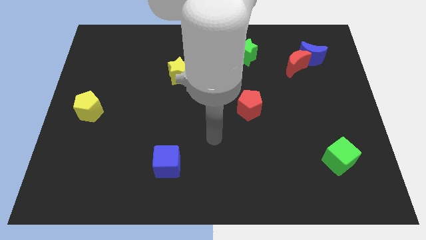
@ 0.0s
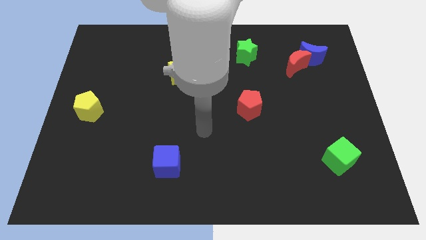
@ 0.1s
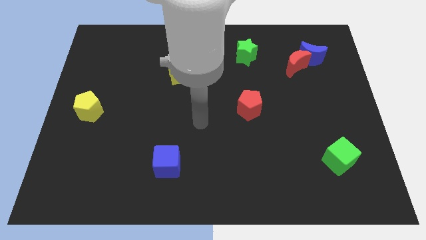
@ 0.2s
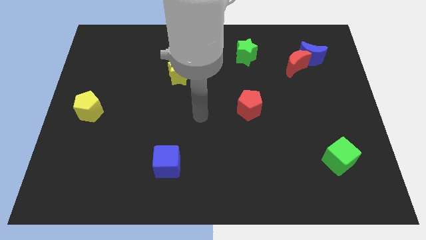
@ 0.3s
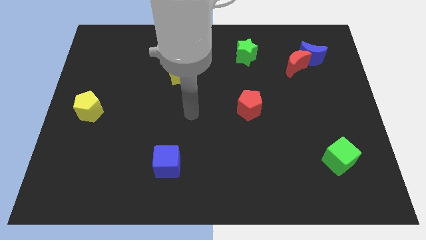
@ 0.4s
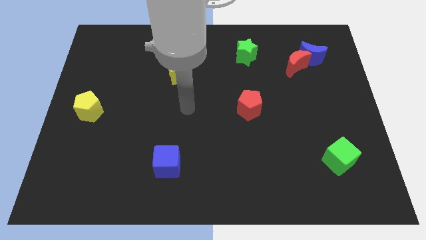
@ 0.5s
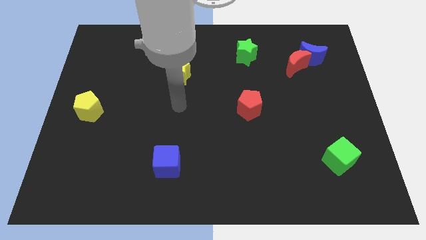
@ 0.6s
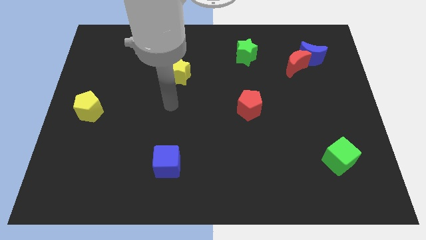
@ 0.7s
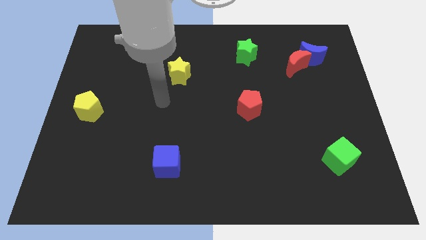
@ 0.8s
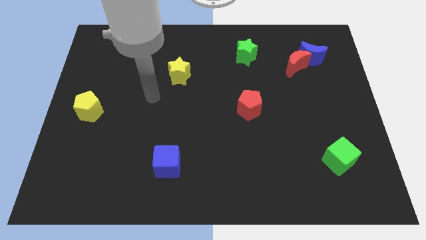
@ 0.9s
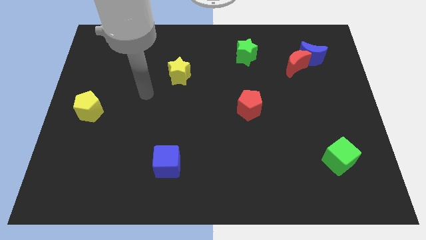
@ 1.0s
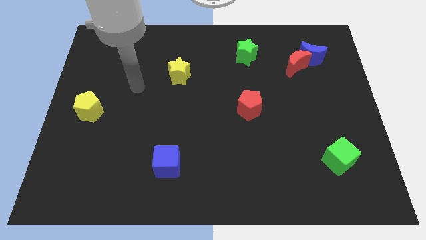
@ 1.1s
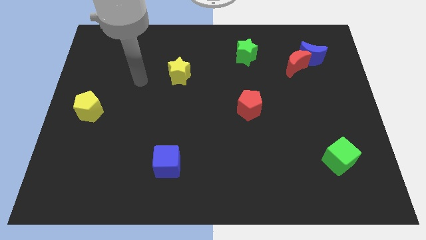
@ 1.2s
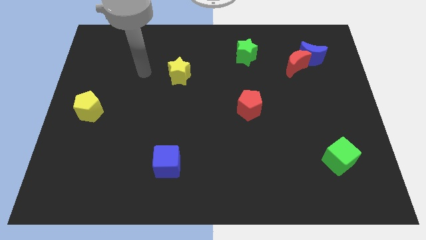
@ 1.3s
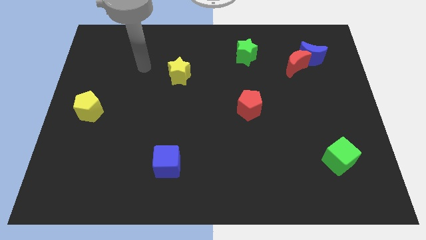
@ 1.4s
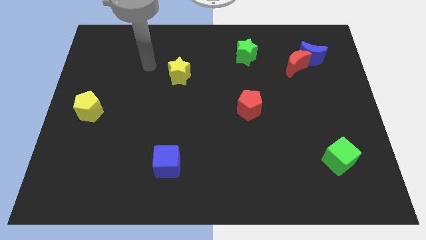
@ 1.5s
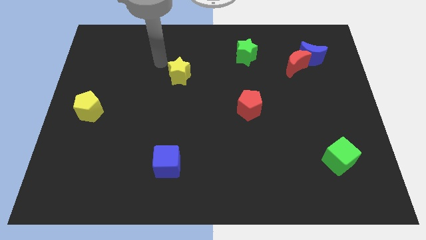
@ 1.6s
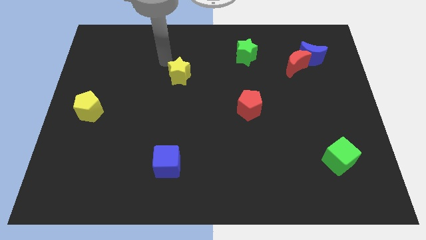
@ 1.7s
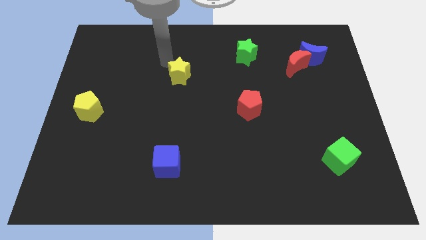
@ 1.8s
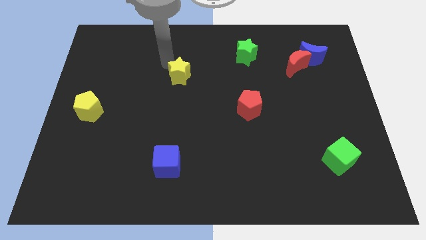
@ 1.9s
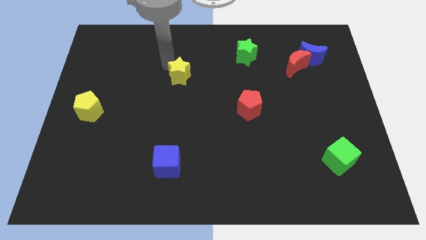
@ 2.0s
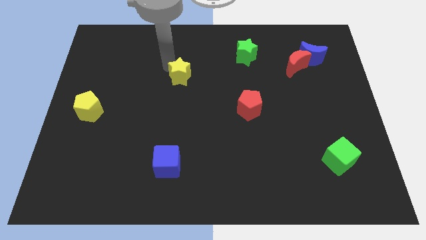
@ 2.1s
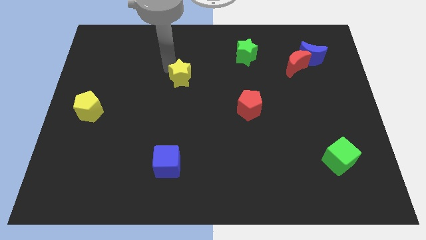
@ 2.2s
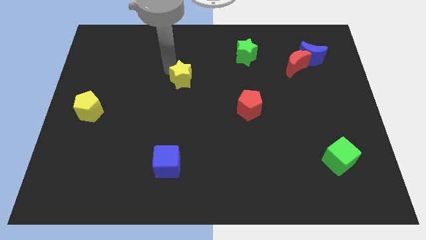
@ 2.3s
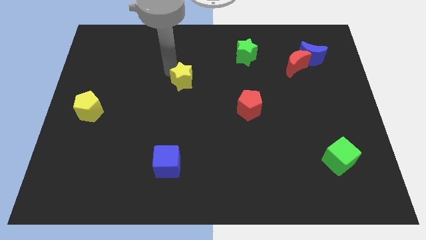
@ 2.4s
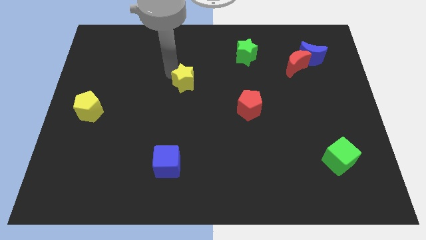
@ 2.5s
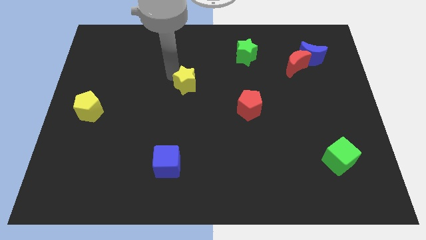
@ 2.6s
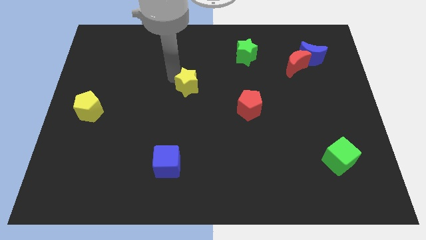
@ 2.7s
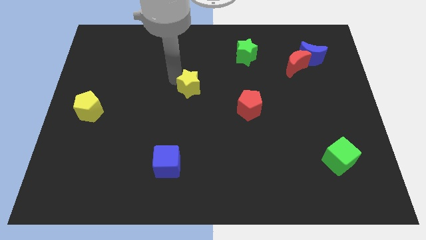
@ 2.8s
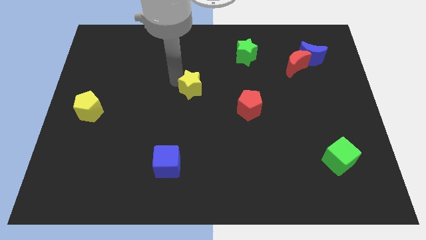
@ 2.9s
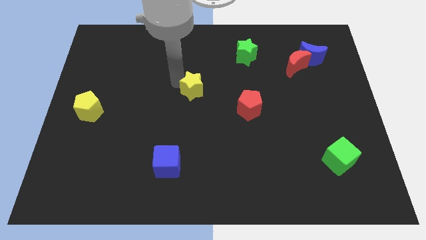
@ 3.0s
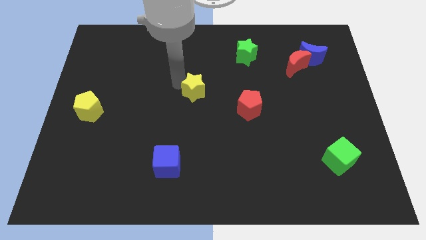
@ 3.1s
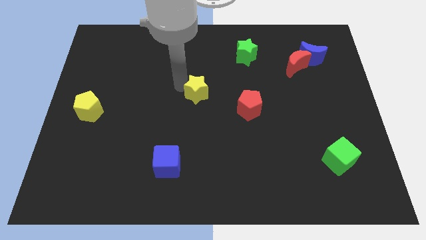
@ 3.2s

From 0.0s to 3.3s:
slightly slide the yellow star downwards and then to the right

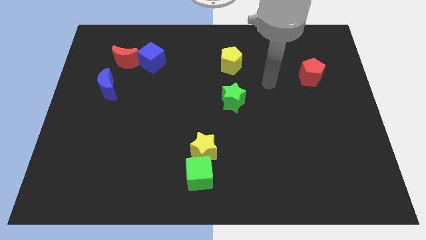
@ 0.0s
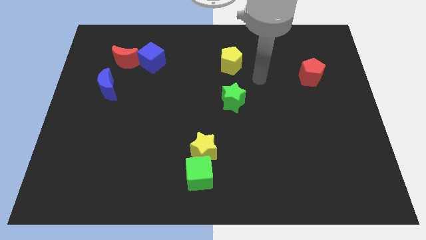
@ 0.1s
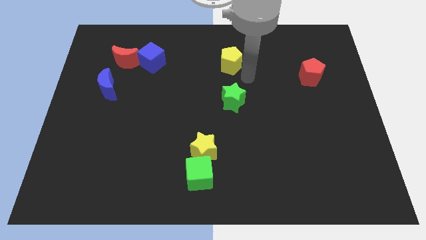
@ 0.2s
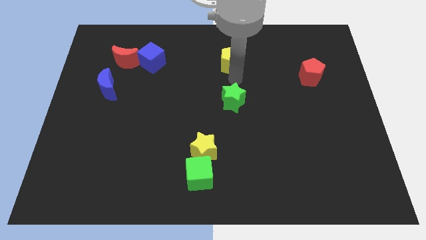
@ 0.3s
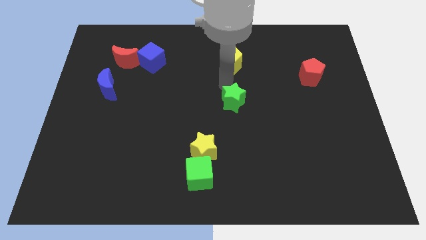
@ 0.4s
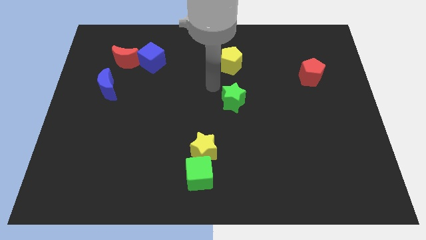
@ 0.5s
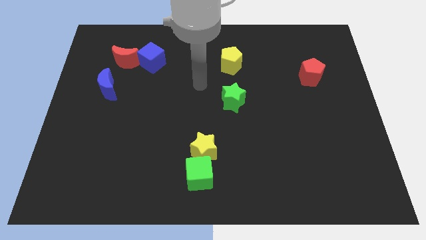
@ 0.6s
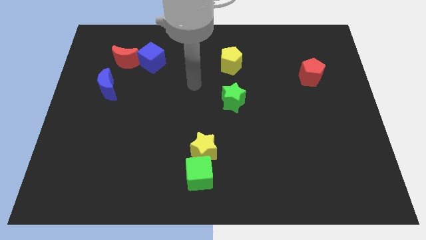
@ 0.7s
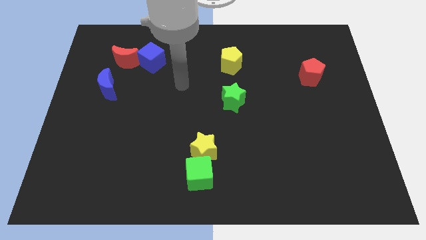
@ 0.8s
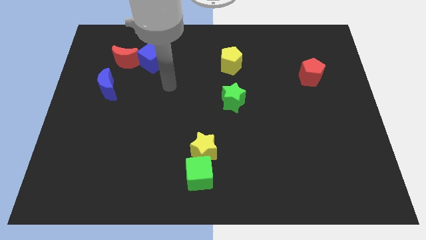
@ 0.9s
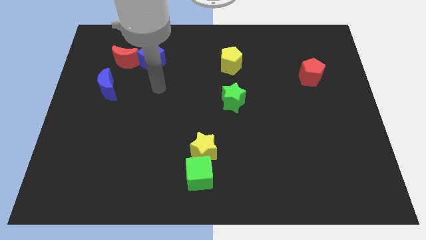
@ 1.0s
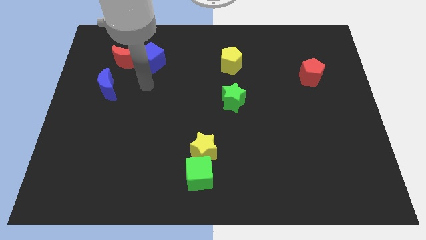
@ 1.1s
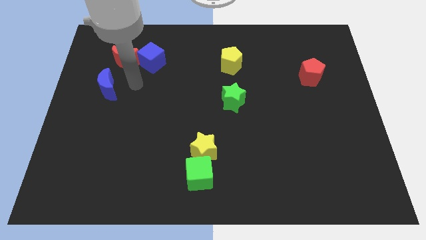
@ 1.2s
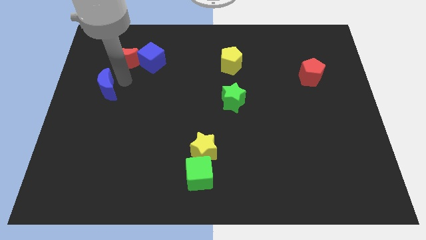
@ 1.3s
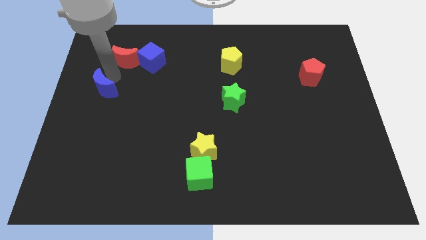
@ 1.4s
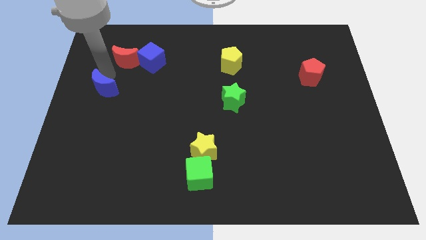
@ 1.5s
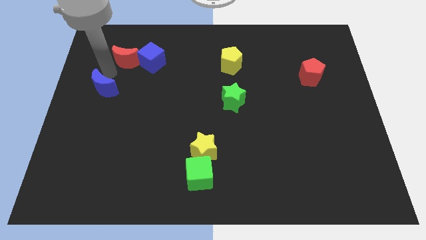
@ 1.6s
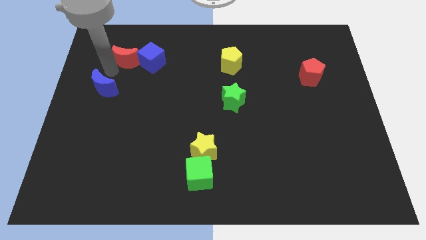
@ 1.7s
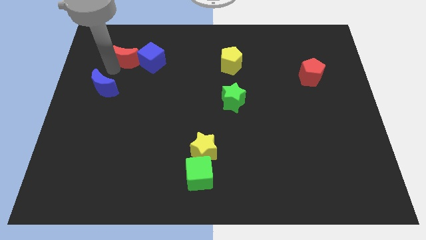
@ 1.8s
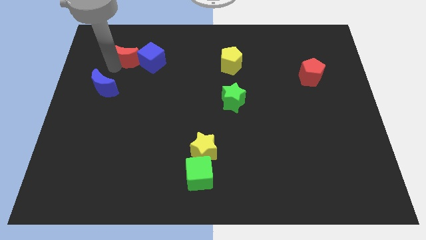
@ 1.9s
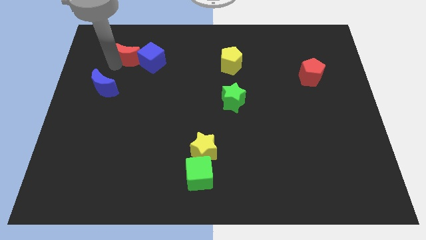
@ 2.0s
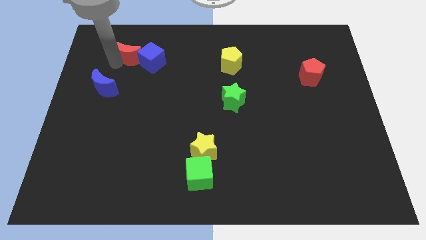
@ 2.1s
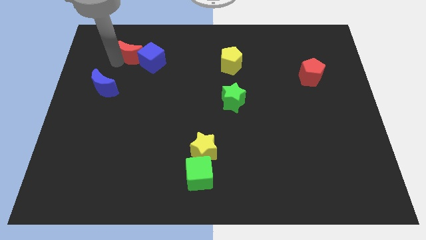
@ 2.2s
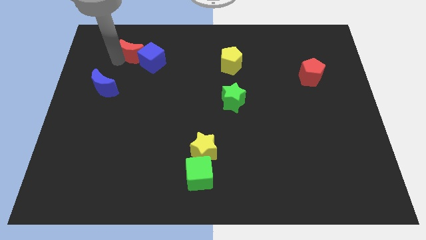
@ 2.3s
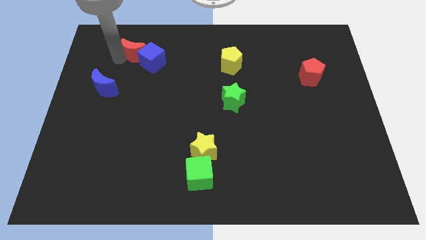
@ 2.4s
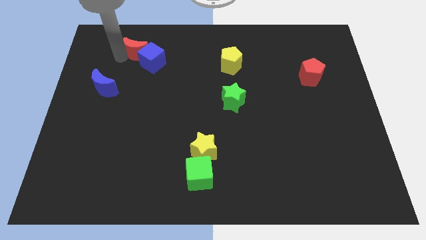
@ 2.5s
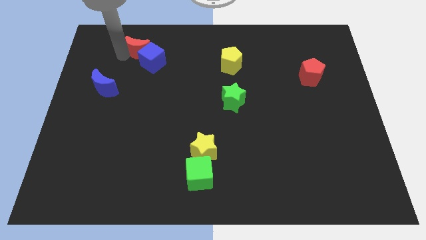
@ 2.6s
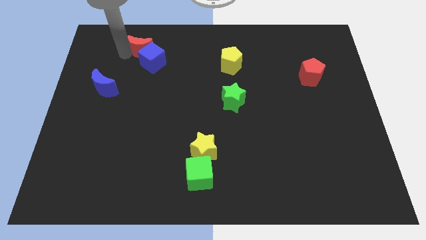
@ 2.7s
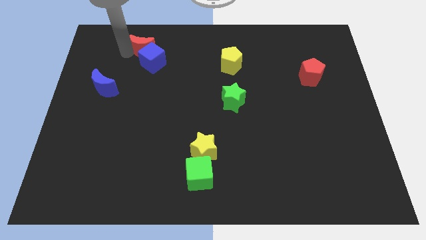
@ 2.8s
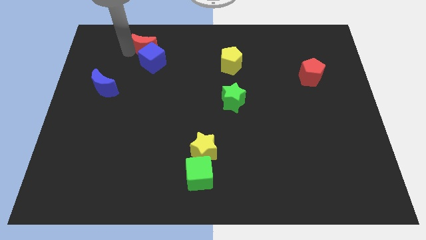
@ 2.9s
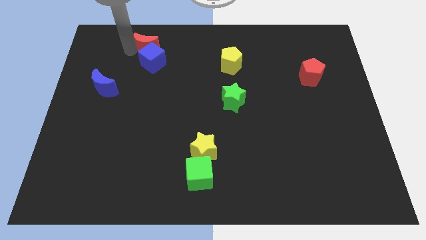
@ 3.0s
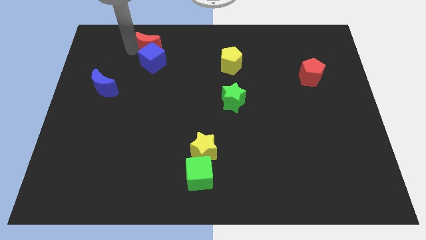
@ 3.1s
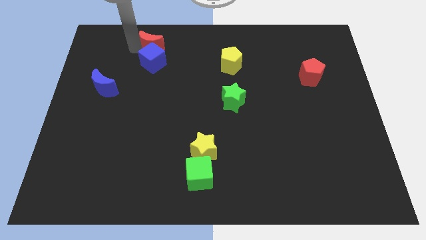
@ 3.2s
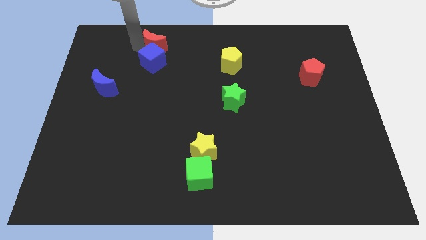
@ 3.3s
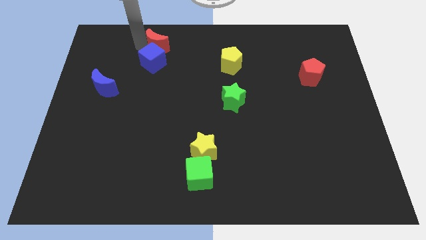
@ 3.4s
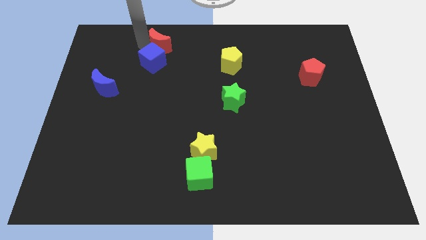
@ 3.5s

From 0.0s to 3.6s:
slightly push the red moon right

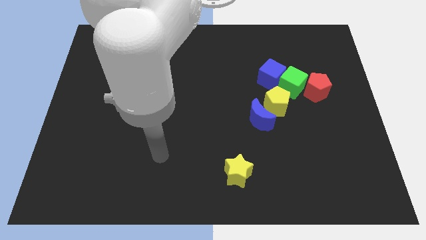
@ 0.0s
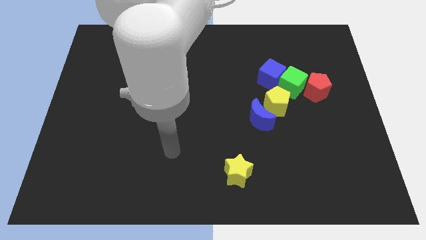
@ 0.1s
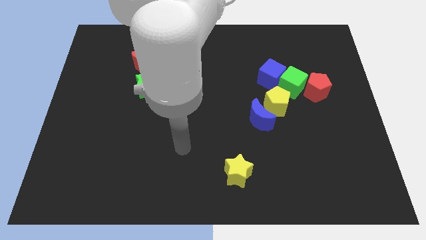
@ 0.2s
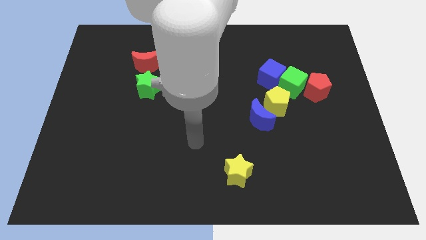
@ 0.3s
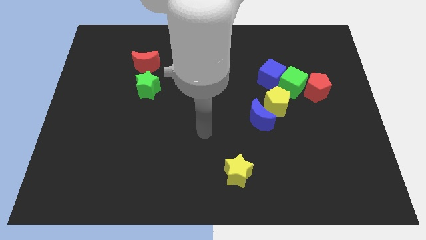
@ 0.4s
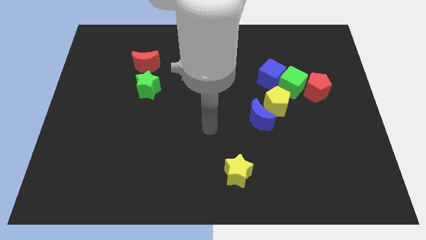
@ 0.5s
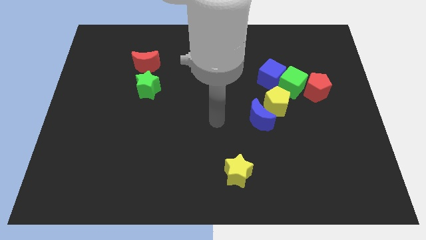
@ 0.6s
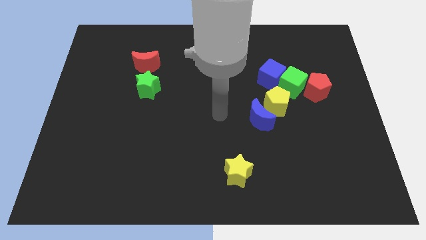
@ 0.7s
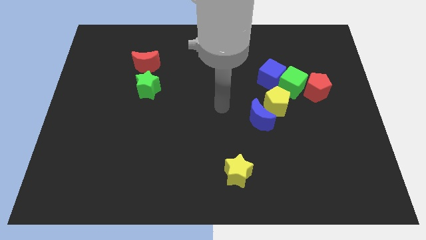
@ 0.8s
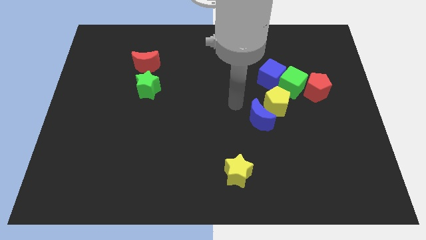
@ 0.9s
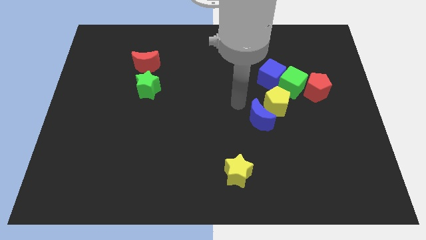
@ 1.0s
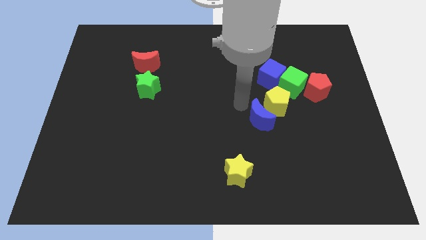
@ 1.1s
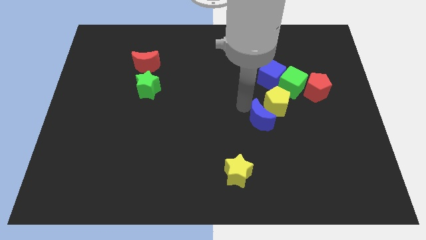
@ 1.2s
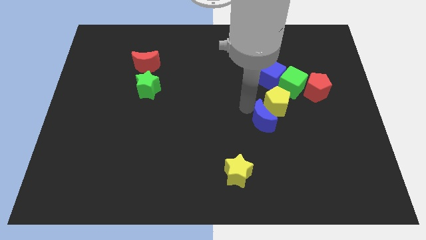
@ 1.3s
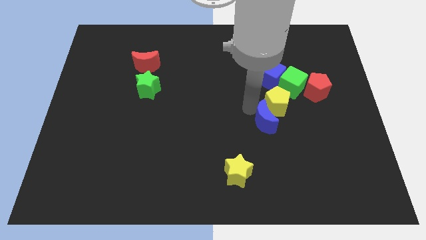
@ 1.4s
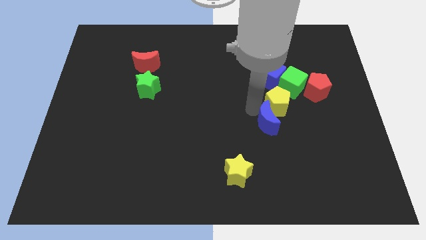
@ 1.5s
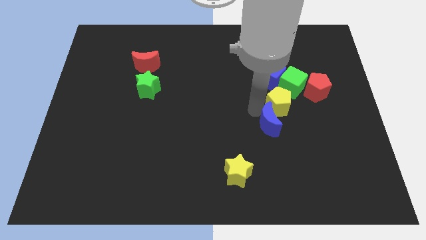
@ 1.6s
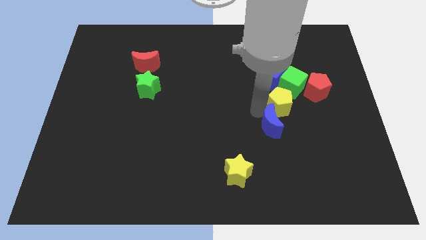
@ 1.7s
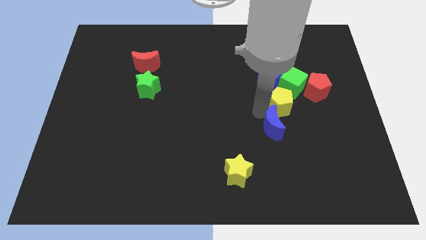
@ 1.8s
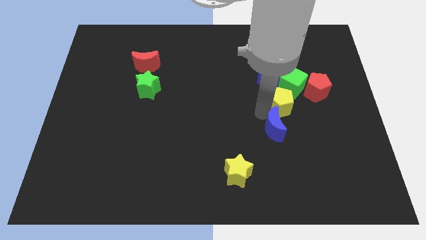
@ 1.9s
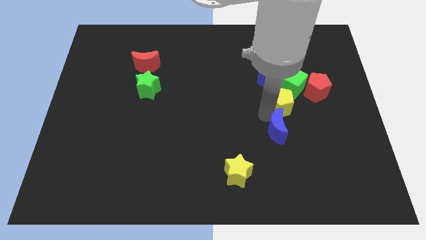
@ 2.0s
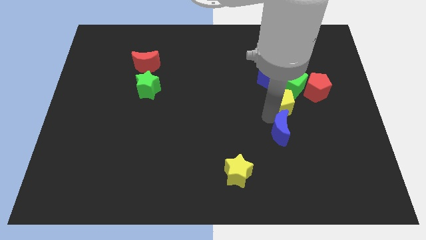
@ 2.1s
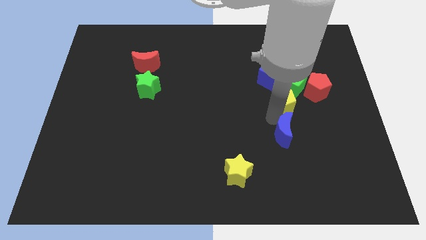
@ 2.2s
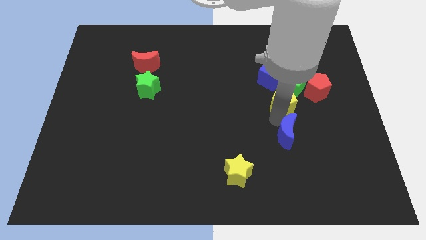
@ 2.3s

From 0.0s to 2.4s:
slightly slide the blue moon diagonally downwards and right
